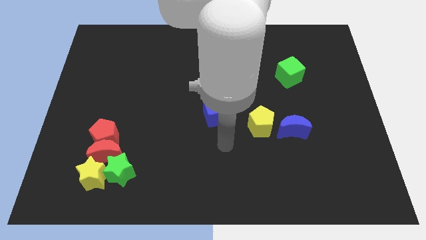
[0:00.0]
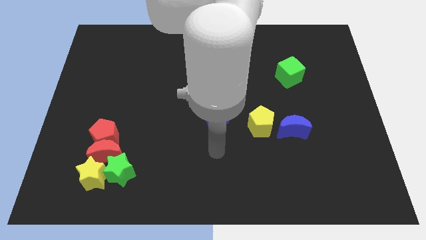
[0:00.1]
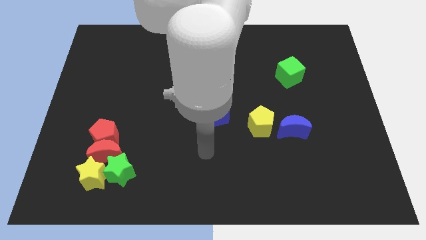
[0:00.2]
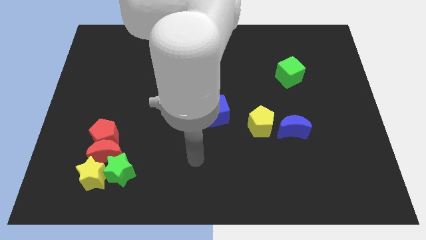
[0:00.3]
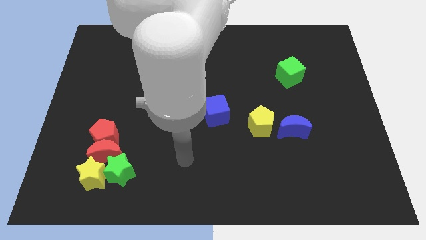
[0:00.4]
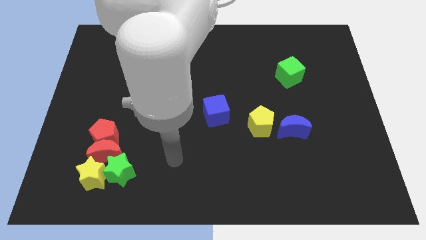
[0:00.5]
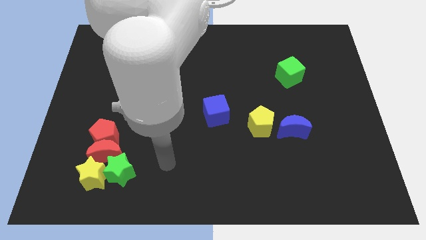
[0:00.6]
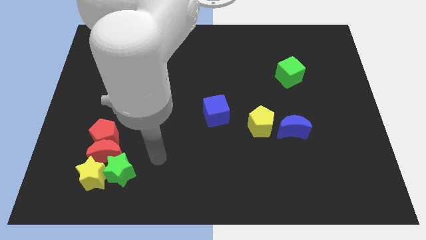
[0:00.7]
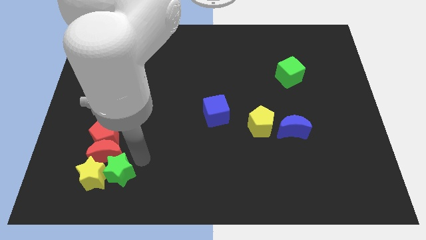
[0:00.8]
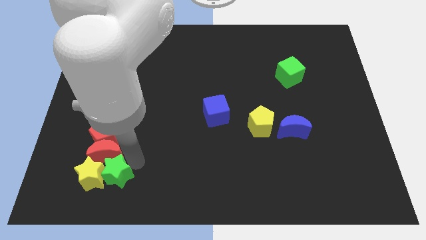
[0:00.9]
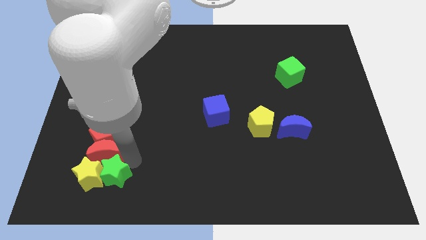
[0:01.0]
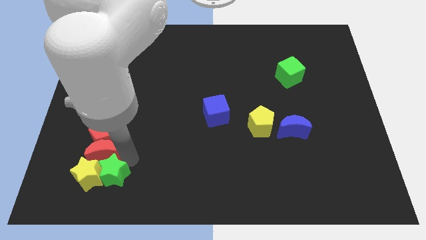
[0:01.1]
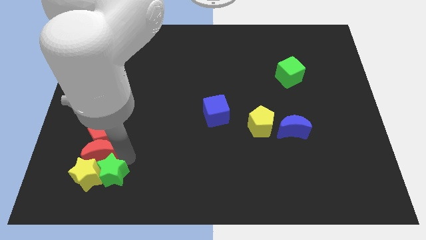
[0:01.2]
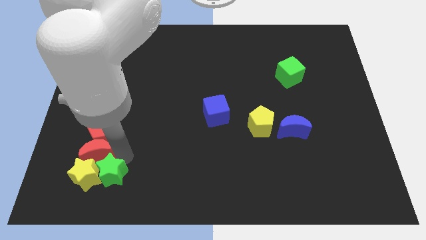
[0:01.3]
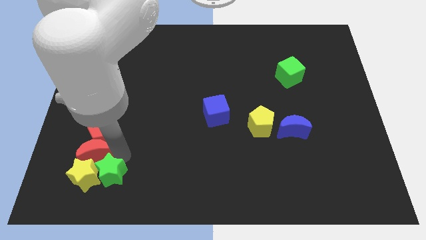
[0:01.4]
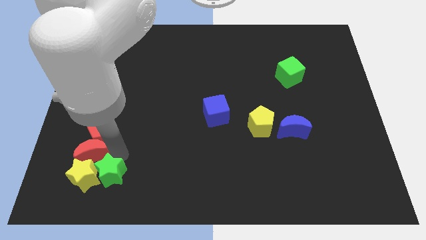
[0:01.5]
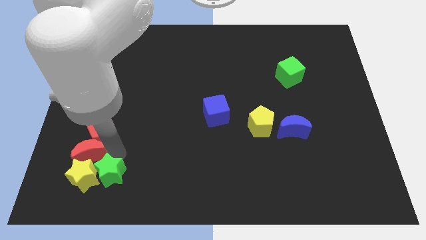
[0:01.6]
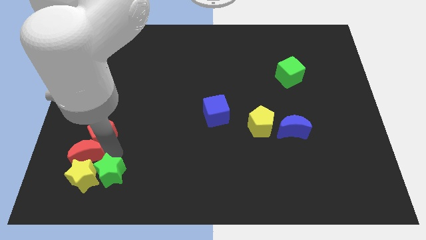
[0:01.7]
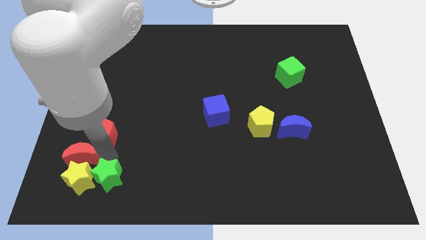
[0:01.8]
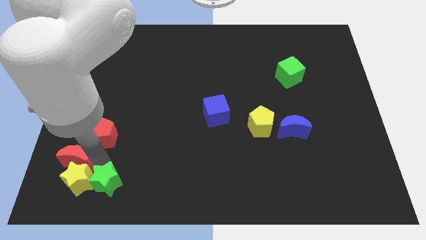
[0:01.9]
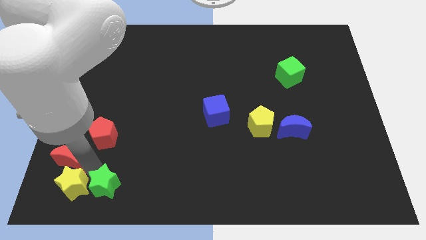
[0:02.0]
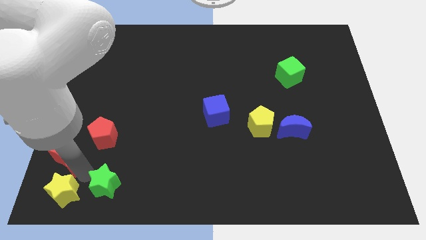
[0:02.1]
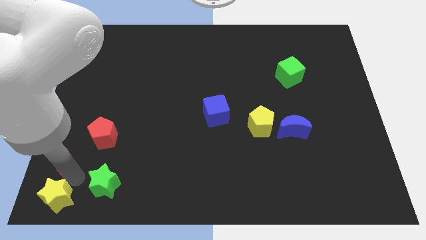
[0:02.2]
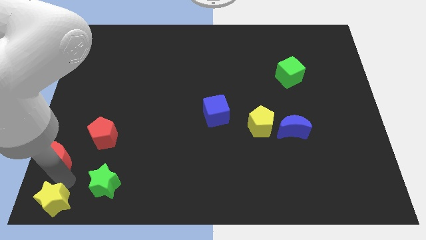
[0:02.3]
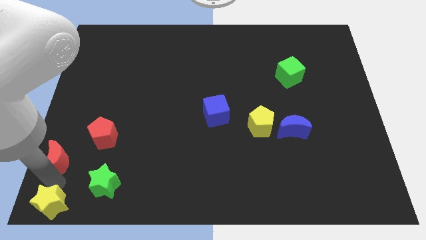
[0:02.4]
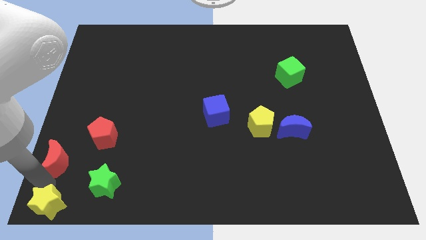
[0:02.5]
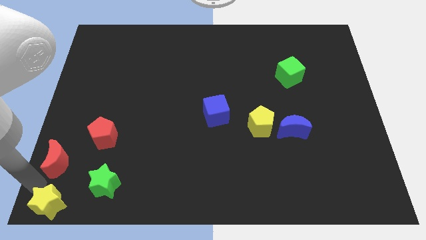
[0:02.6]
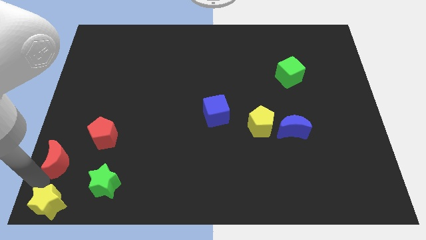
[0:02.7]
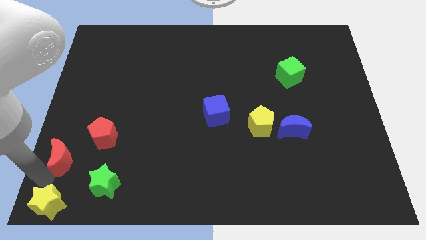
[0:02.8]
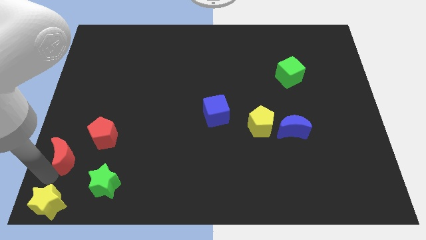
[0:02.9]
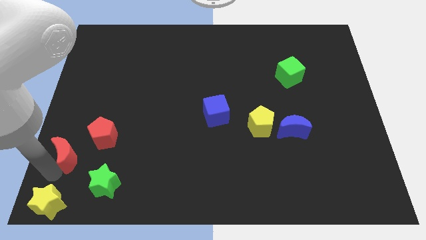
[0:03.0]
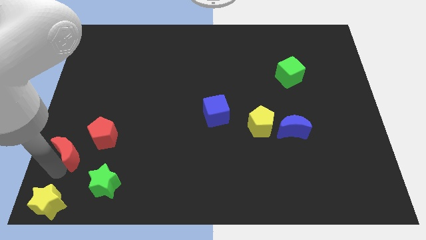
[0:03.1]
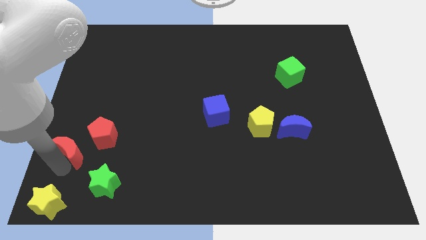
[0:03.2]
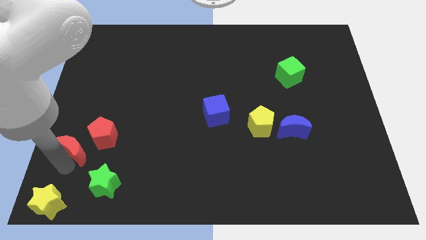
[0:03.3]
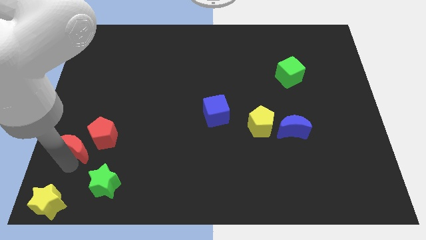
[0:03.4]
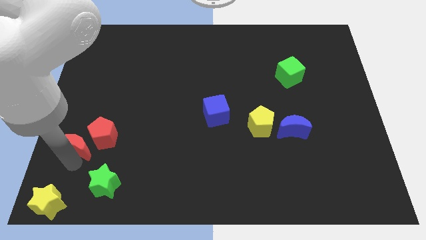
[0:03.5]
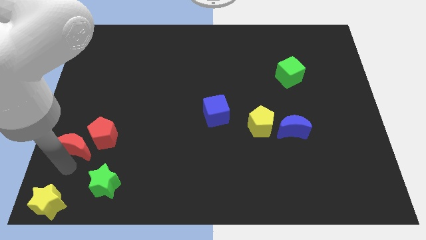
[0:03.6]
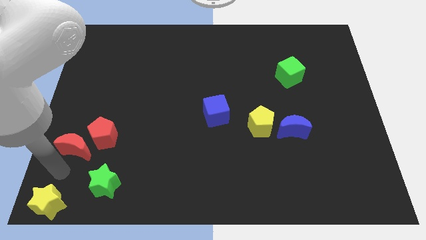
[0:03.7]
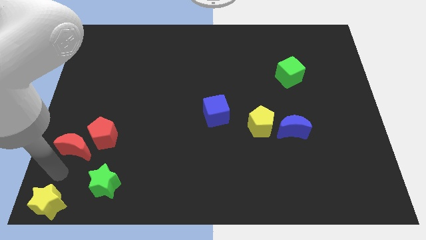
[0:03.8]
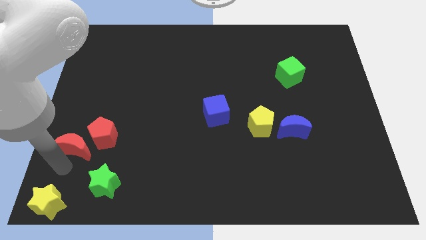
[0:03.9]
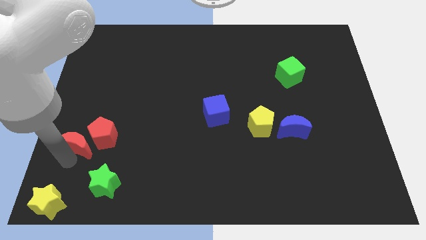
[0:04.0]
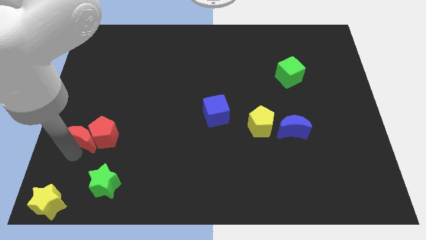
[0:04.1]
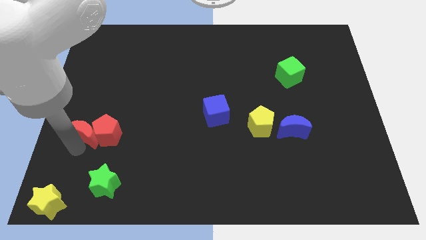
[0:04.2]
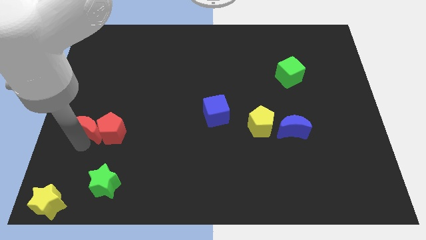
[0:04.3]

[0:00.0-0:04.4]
pull the red moon apart from the red pentagon, yellow star, and green star

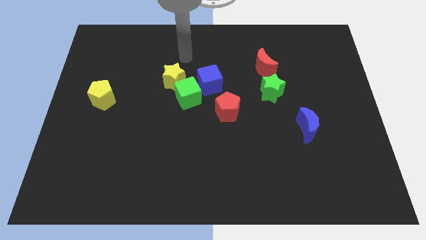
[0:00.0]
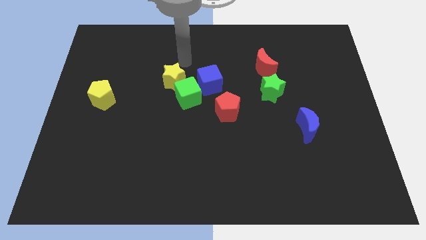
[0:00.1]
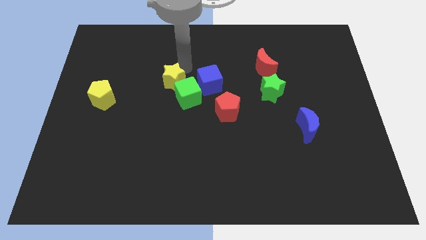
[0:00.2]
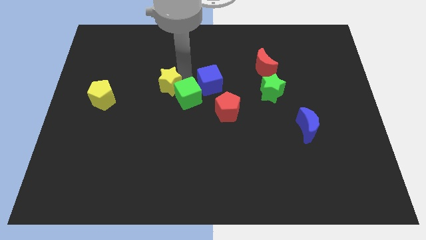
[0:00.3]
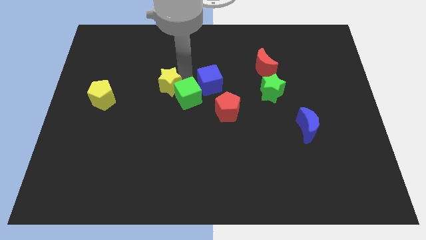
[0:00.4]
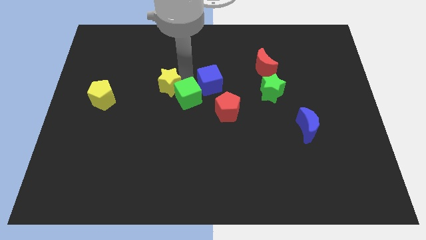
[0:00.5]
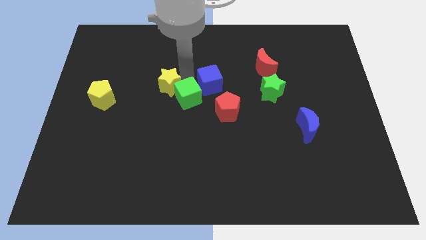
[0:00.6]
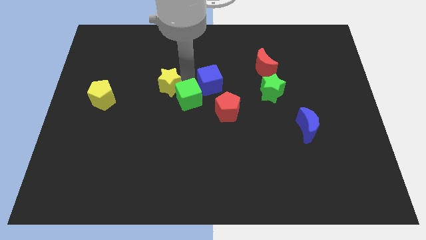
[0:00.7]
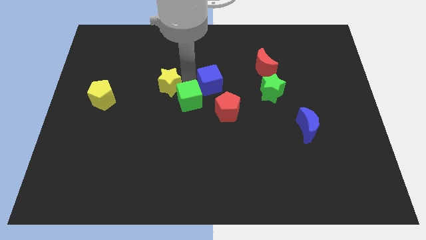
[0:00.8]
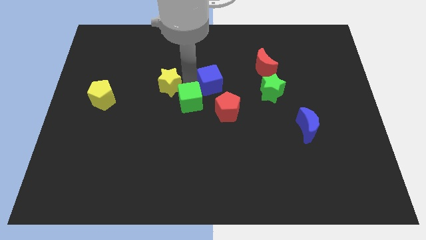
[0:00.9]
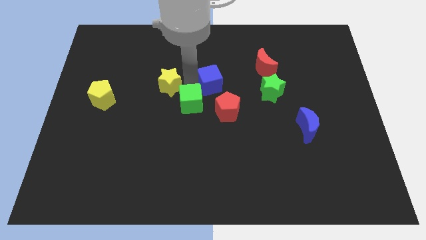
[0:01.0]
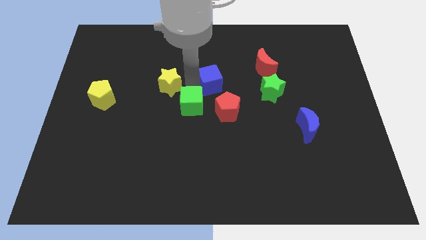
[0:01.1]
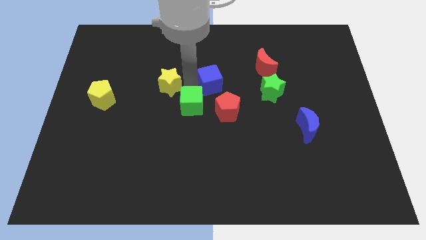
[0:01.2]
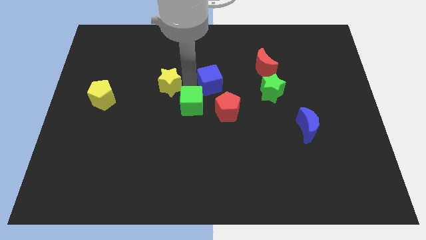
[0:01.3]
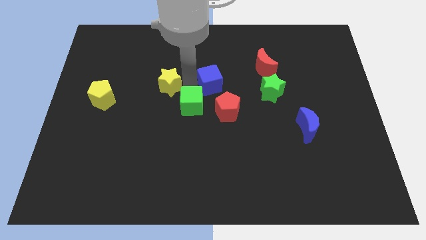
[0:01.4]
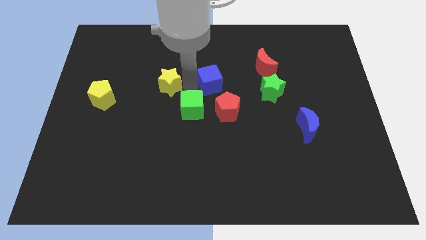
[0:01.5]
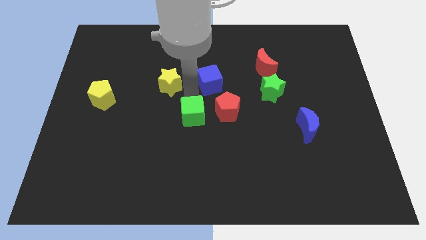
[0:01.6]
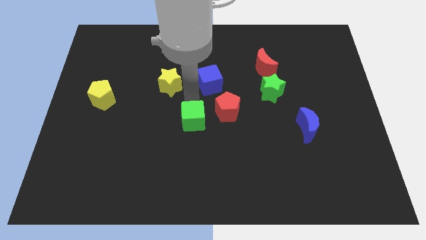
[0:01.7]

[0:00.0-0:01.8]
pull the green cube apart from the yellow star and blue cube

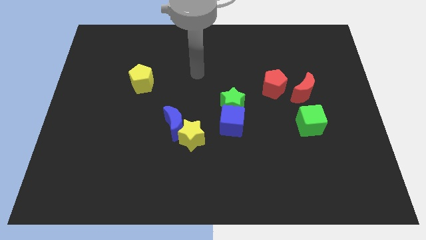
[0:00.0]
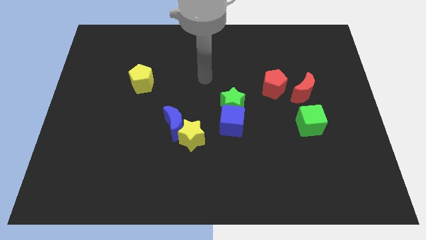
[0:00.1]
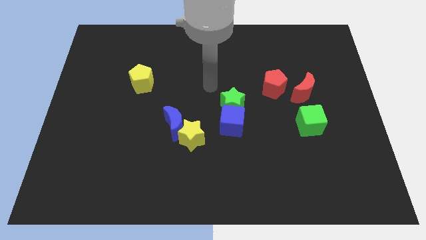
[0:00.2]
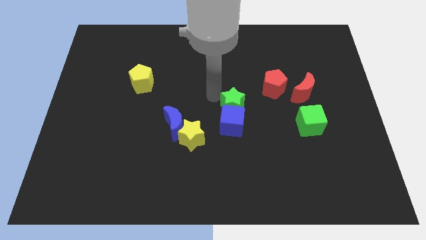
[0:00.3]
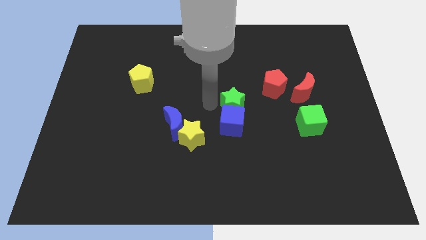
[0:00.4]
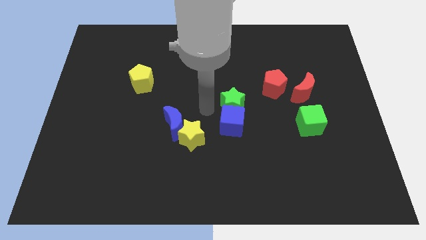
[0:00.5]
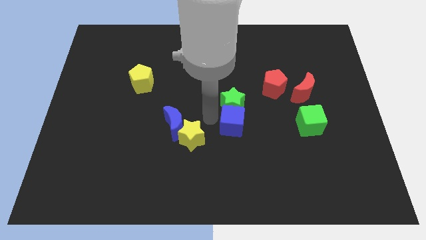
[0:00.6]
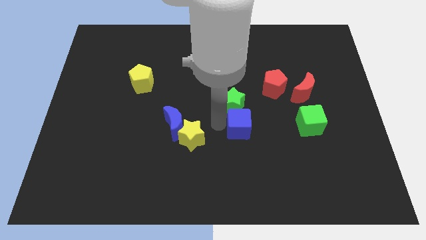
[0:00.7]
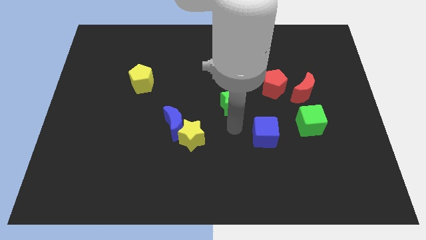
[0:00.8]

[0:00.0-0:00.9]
move the green star away from the blue cube

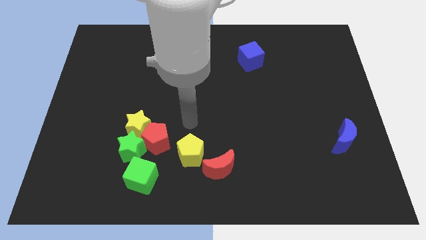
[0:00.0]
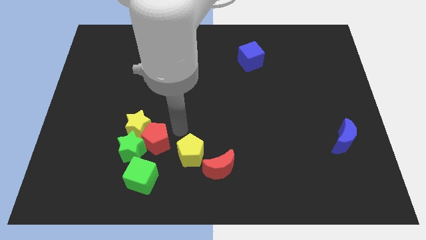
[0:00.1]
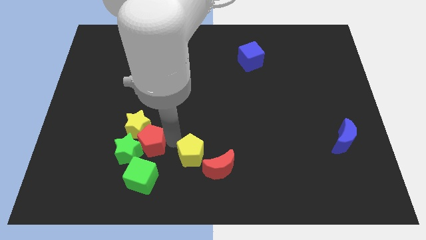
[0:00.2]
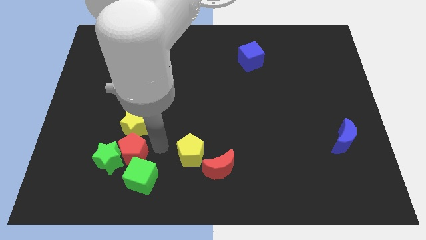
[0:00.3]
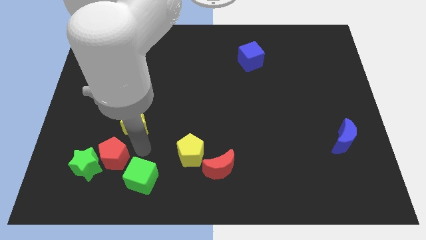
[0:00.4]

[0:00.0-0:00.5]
move the yellow star away from the red pentagon and green star

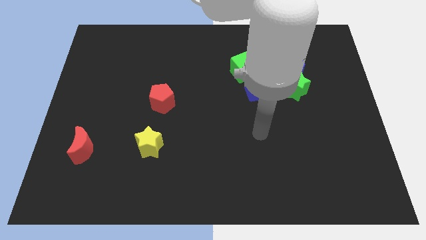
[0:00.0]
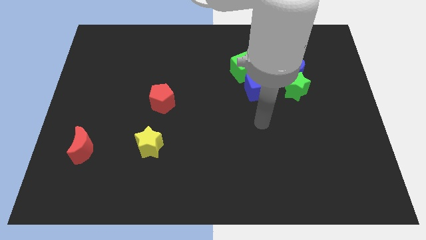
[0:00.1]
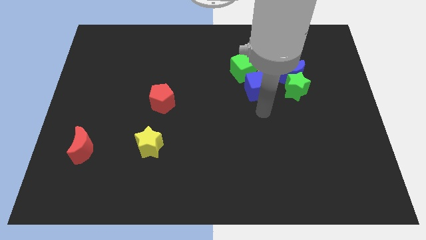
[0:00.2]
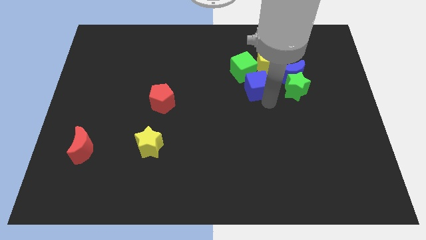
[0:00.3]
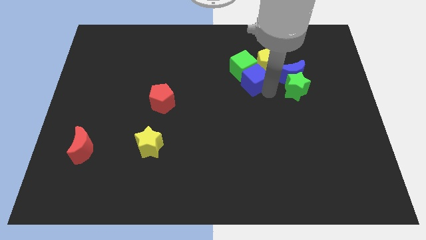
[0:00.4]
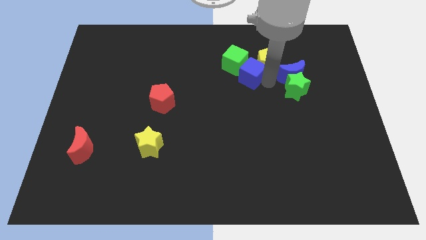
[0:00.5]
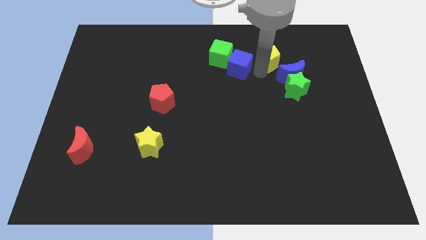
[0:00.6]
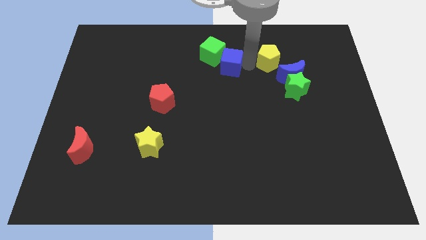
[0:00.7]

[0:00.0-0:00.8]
pull the green cube apart from the yellow pentagon and blue cube

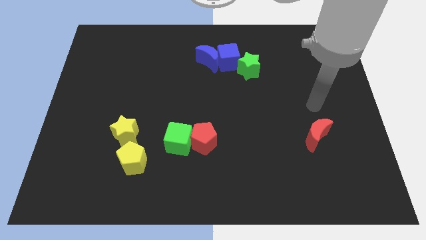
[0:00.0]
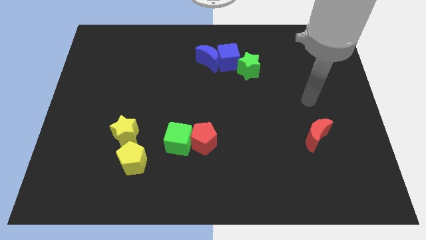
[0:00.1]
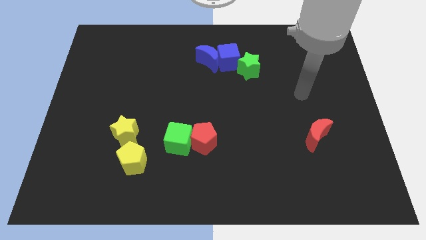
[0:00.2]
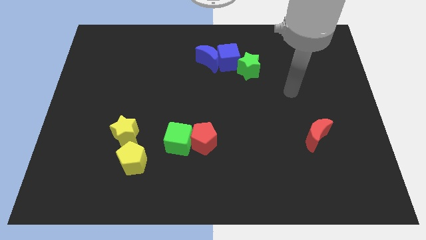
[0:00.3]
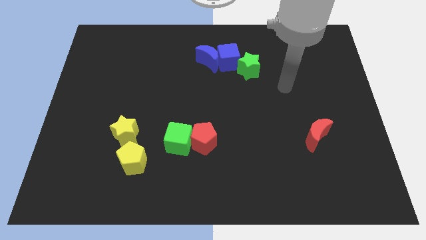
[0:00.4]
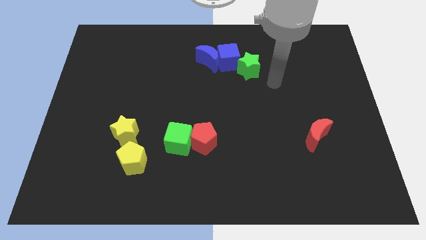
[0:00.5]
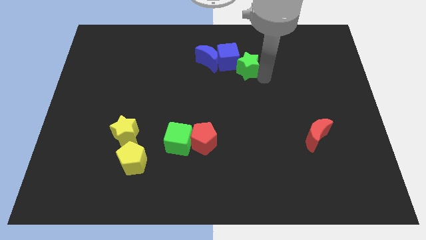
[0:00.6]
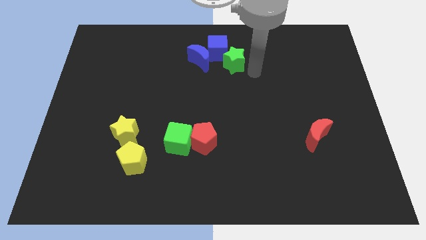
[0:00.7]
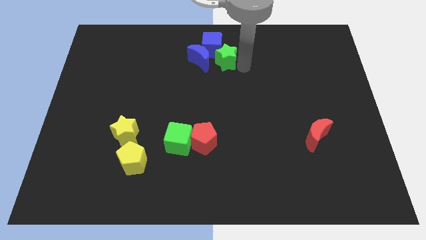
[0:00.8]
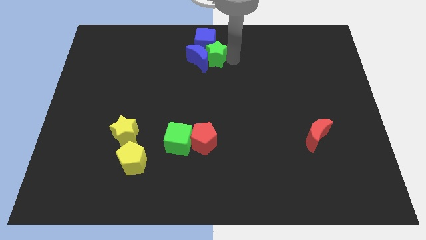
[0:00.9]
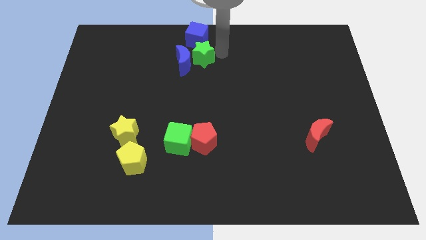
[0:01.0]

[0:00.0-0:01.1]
move the blue moon away from the blue cube
